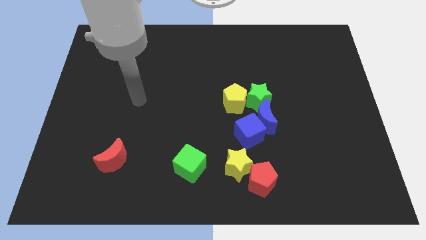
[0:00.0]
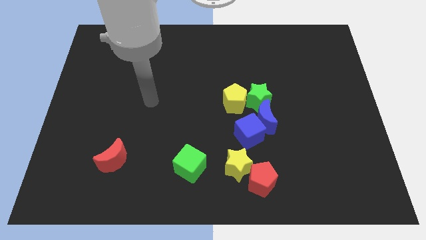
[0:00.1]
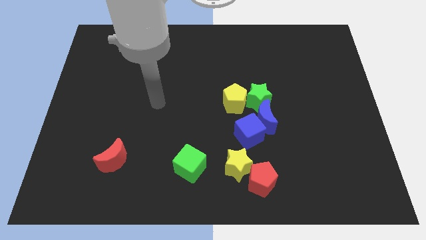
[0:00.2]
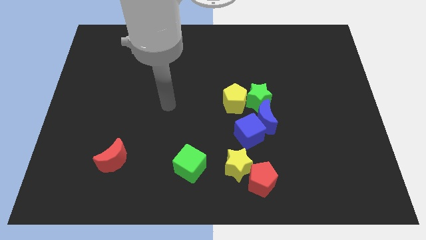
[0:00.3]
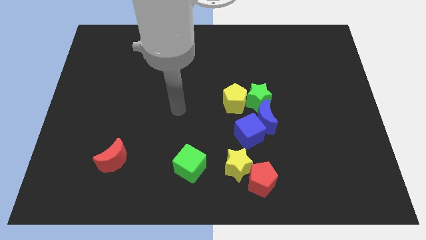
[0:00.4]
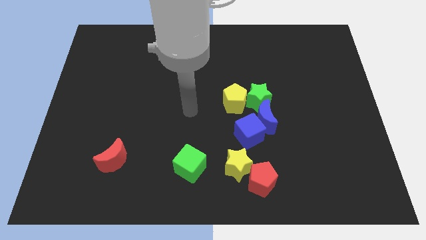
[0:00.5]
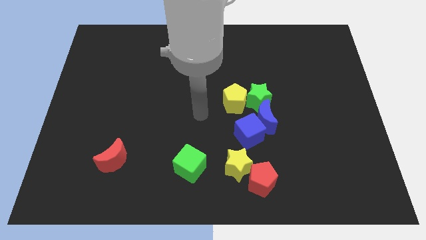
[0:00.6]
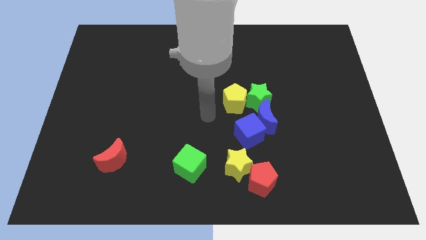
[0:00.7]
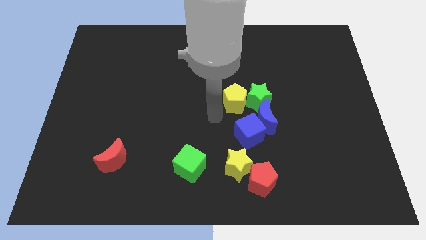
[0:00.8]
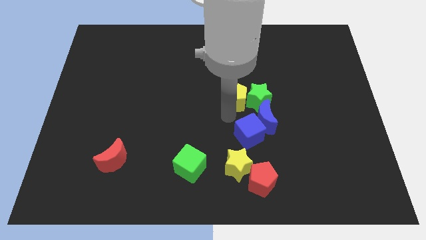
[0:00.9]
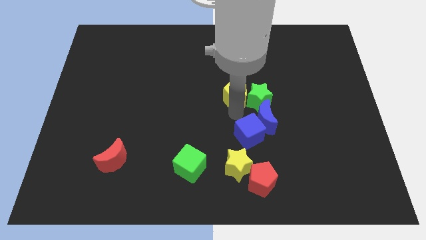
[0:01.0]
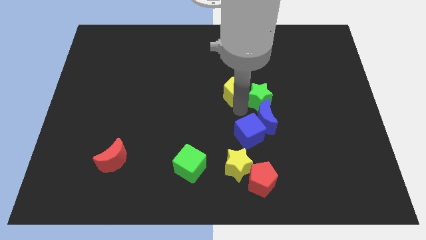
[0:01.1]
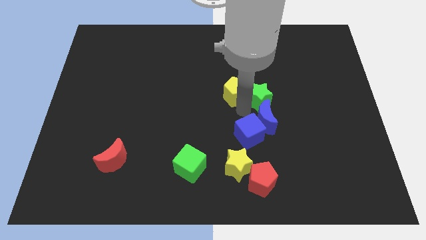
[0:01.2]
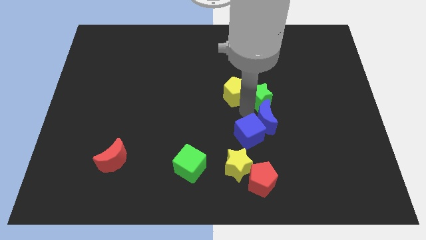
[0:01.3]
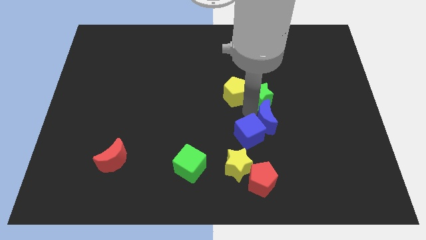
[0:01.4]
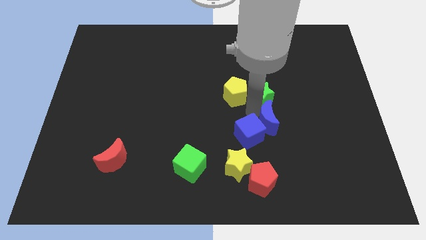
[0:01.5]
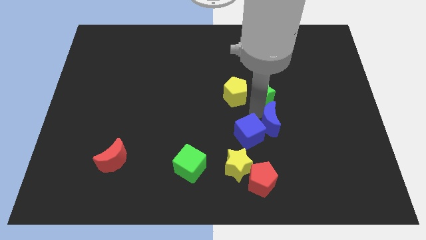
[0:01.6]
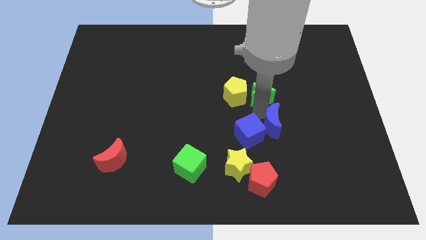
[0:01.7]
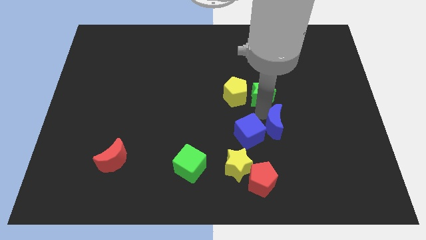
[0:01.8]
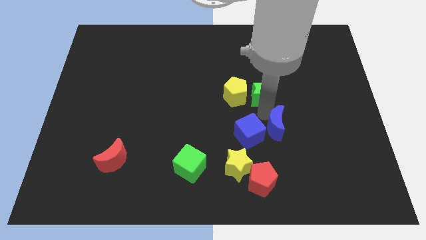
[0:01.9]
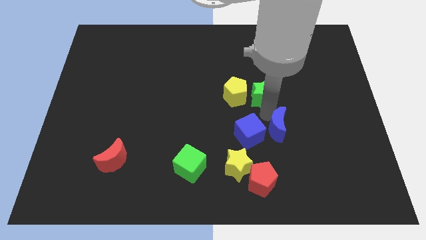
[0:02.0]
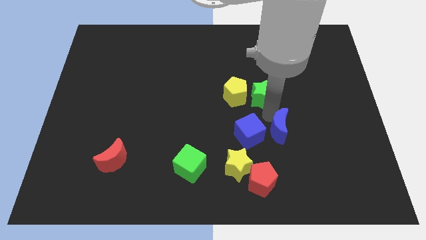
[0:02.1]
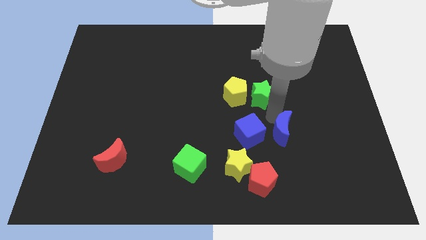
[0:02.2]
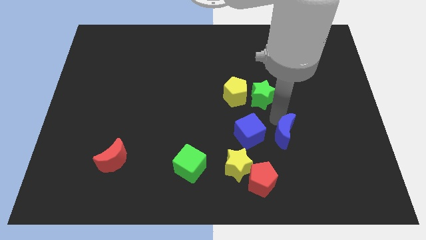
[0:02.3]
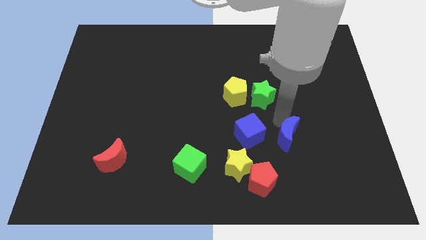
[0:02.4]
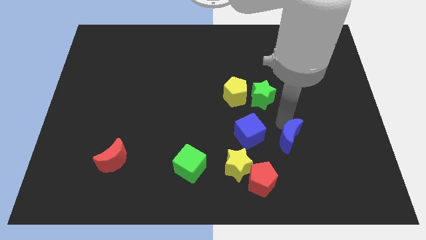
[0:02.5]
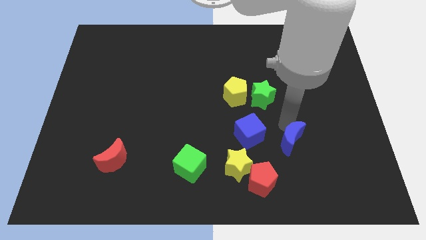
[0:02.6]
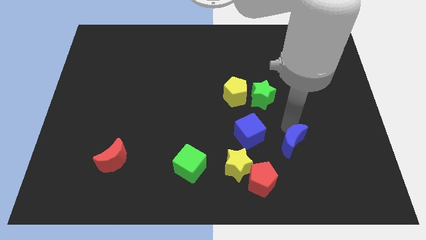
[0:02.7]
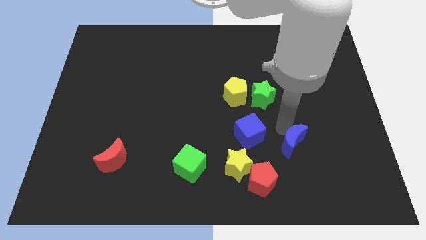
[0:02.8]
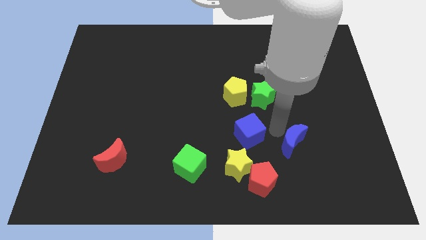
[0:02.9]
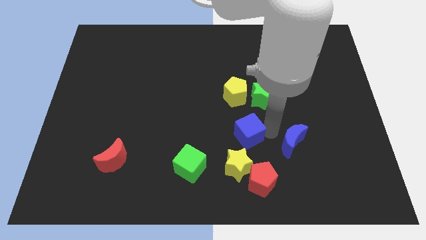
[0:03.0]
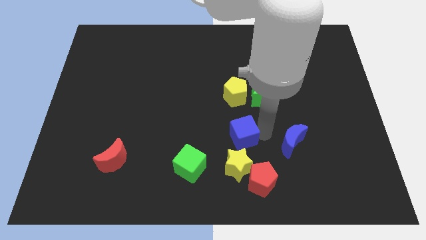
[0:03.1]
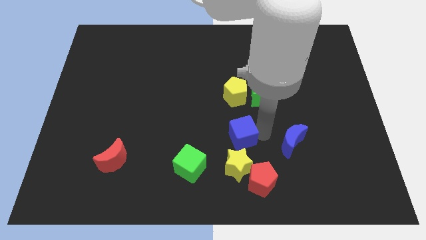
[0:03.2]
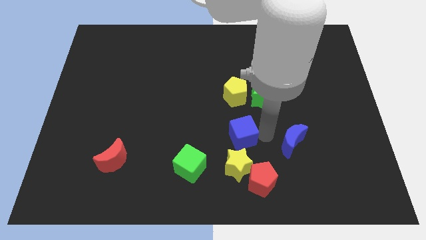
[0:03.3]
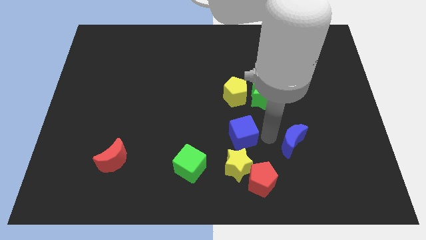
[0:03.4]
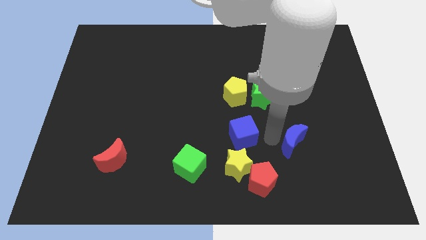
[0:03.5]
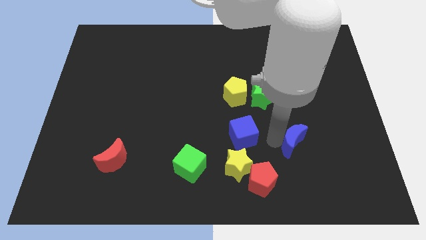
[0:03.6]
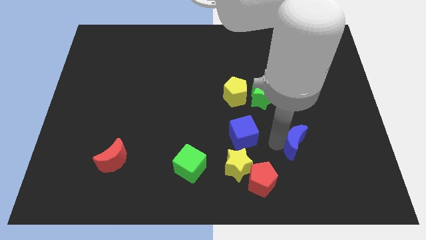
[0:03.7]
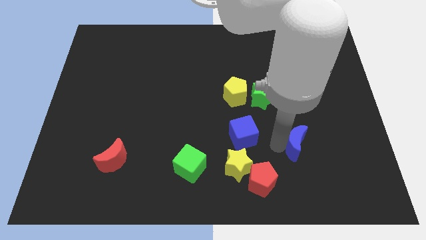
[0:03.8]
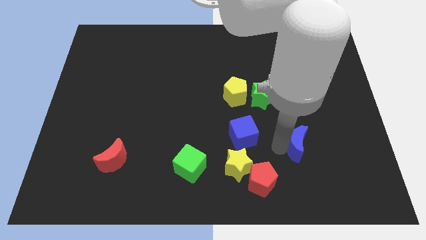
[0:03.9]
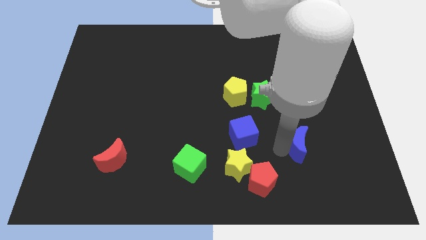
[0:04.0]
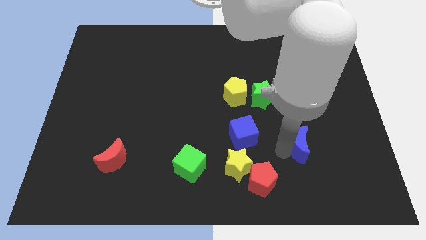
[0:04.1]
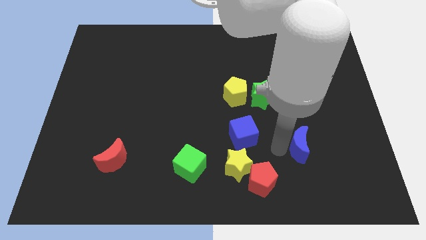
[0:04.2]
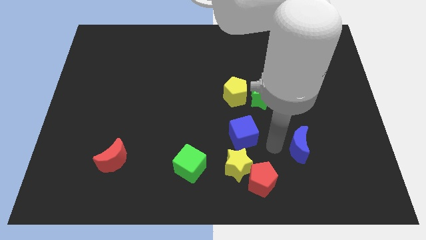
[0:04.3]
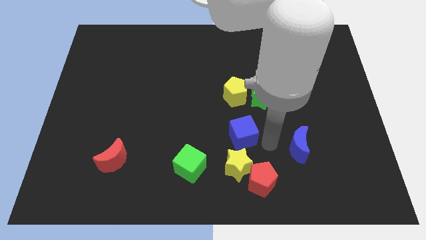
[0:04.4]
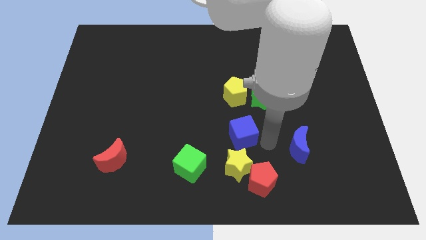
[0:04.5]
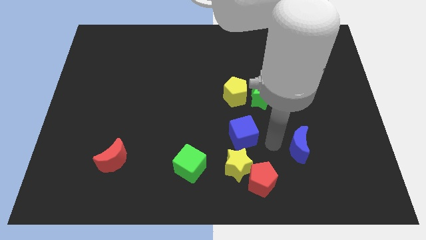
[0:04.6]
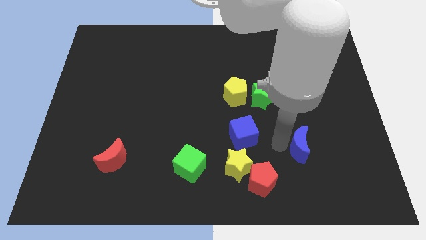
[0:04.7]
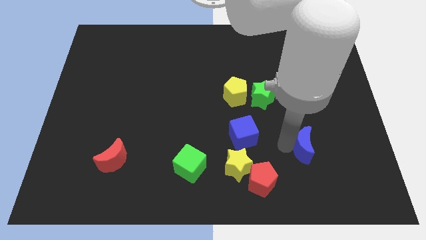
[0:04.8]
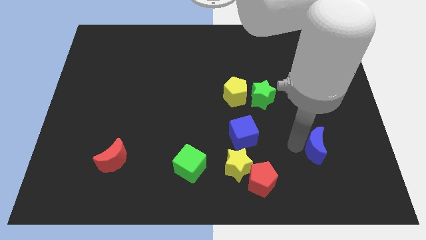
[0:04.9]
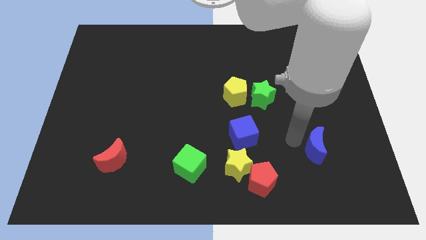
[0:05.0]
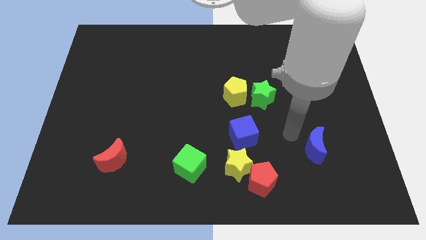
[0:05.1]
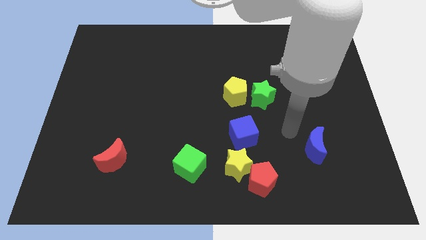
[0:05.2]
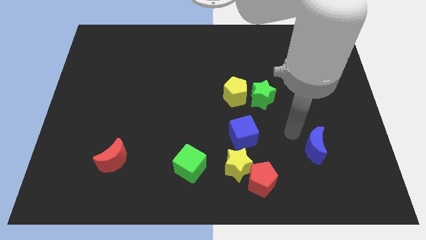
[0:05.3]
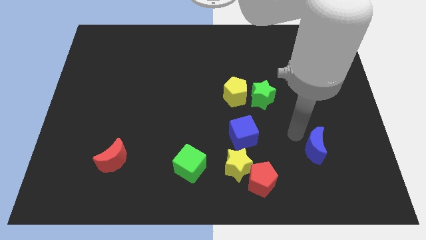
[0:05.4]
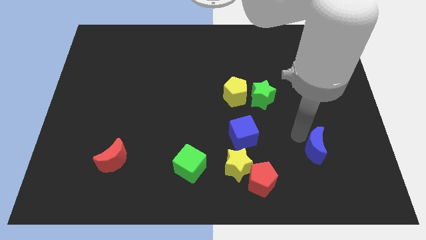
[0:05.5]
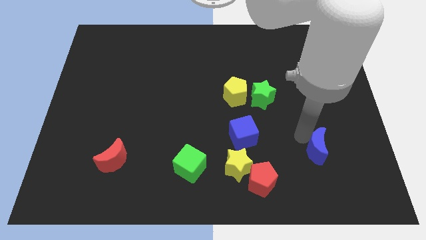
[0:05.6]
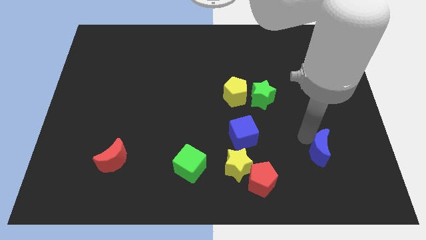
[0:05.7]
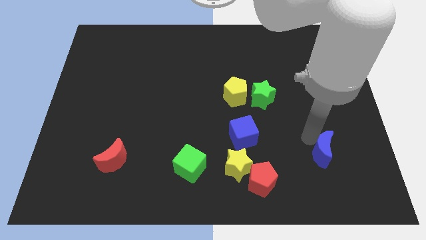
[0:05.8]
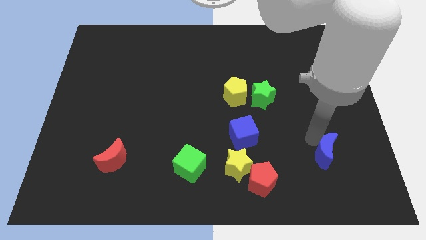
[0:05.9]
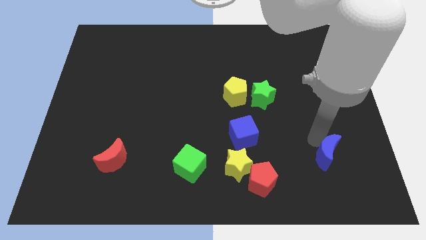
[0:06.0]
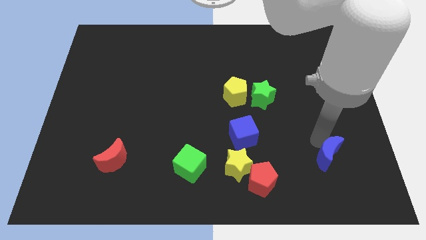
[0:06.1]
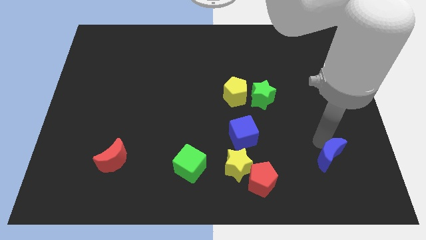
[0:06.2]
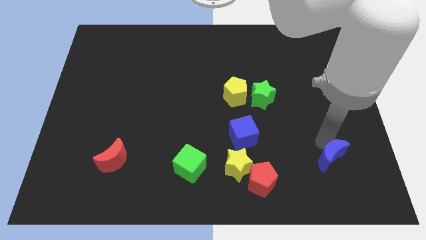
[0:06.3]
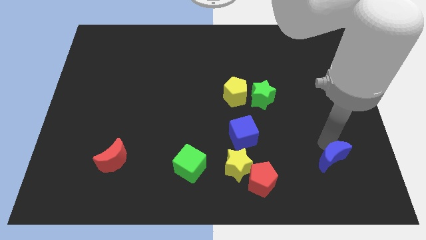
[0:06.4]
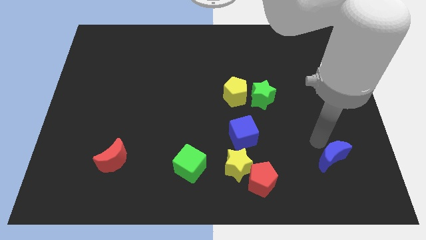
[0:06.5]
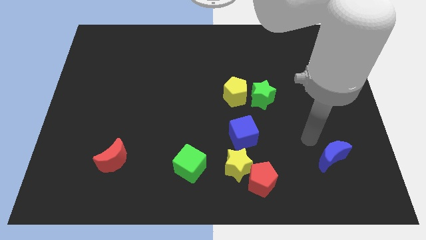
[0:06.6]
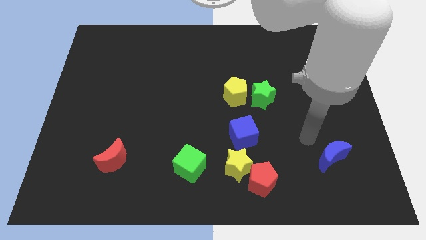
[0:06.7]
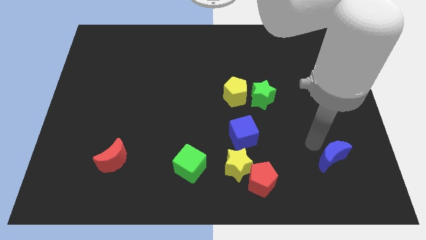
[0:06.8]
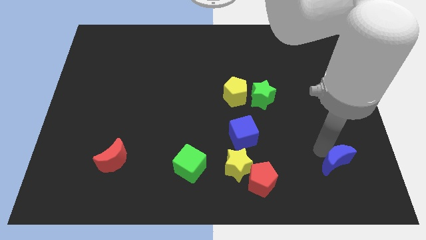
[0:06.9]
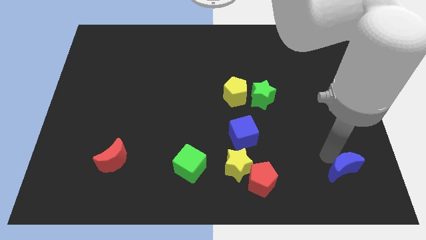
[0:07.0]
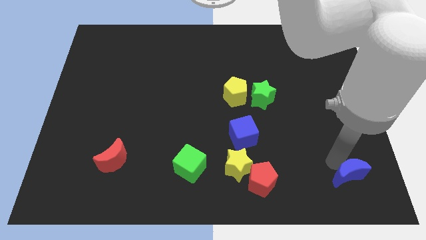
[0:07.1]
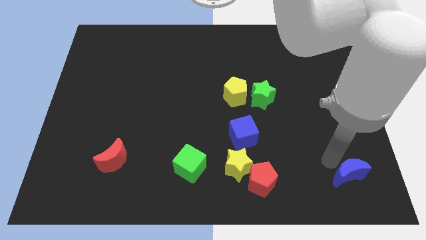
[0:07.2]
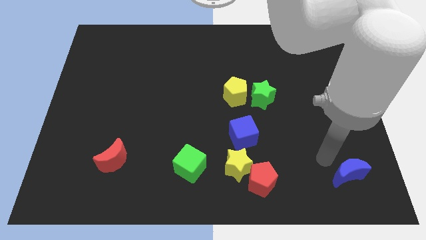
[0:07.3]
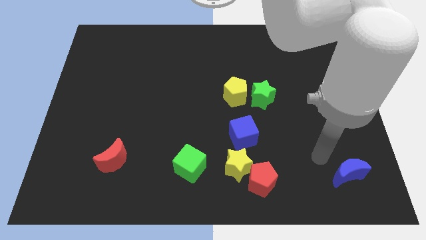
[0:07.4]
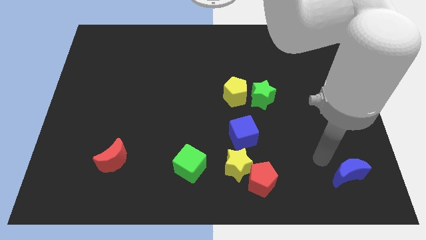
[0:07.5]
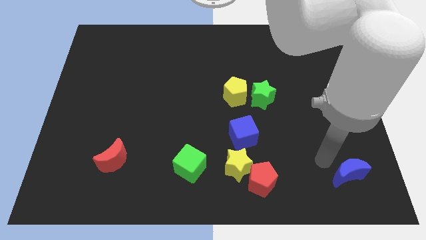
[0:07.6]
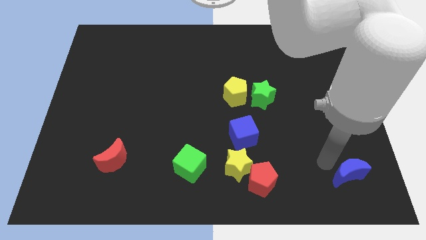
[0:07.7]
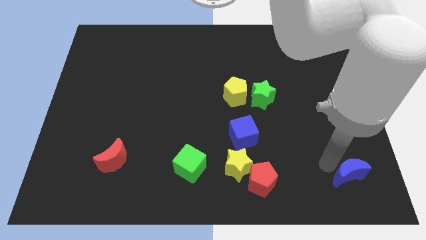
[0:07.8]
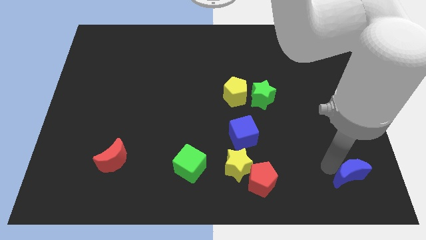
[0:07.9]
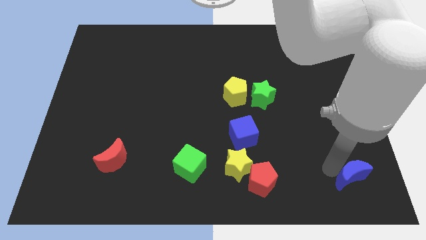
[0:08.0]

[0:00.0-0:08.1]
slide the blue moon to the bottom right
